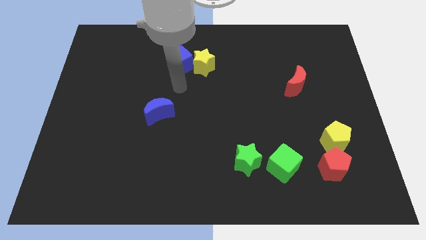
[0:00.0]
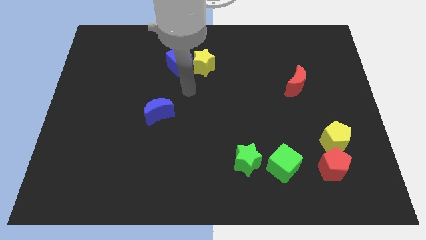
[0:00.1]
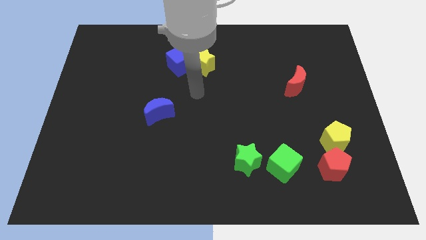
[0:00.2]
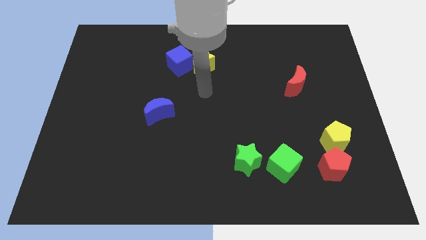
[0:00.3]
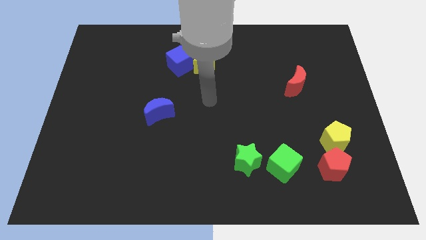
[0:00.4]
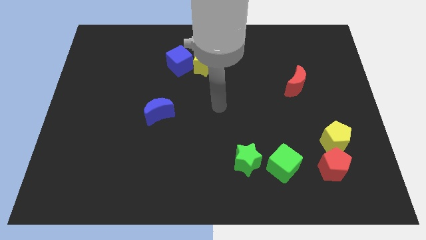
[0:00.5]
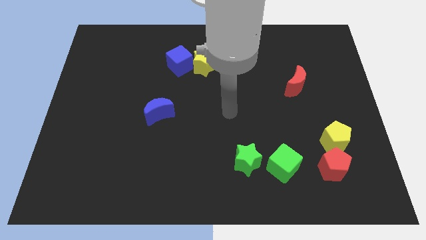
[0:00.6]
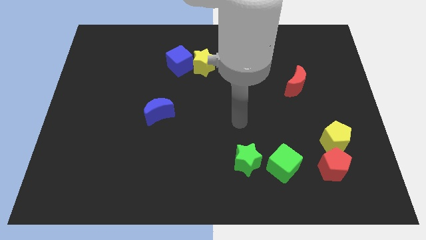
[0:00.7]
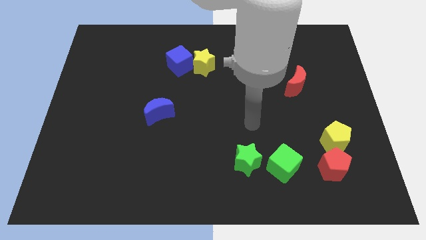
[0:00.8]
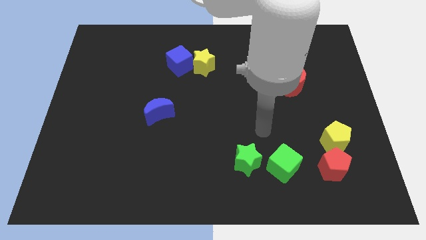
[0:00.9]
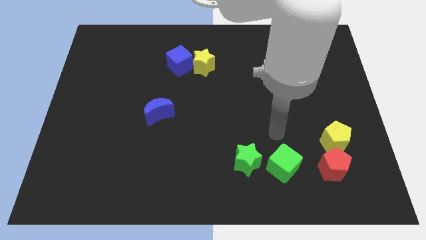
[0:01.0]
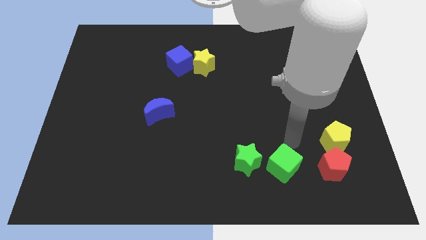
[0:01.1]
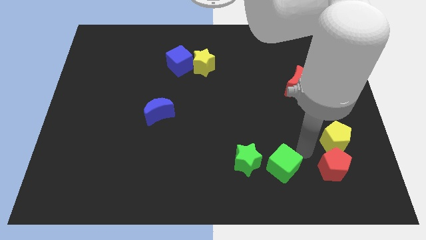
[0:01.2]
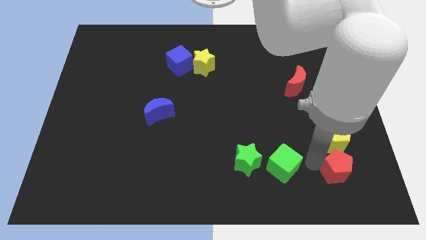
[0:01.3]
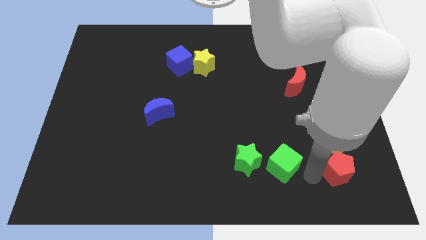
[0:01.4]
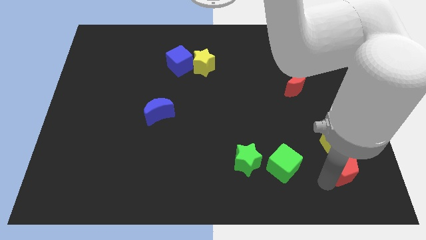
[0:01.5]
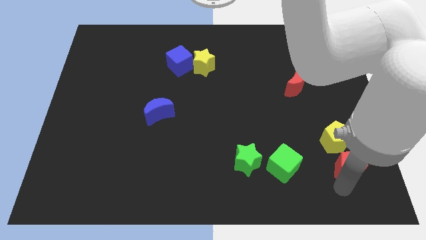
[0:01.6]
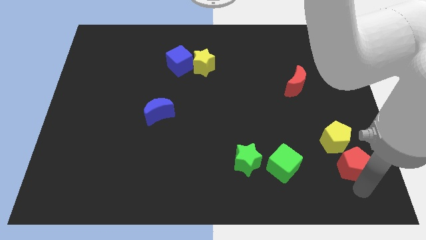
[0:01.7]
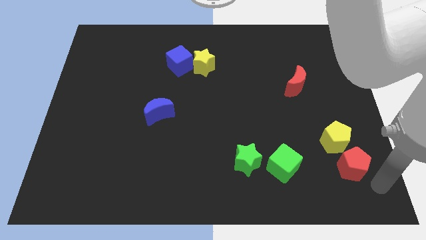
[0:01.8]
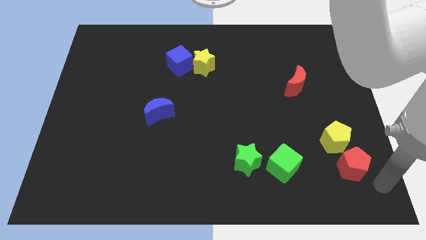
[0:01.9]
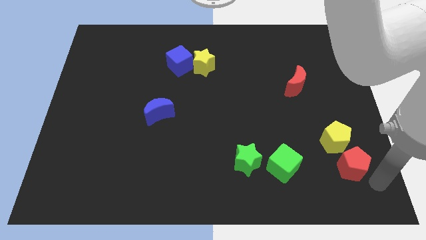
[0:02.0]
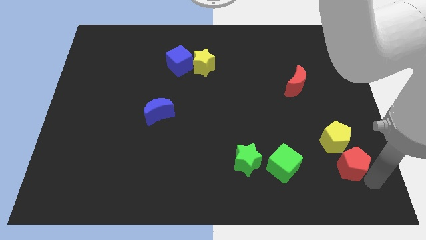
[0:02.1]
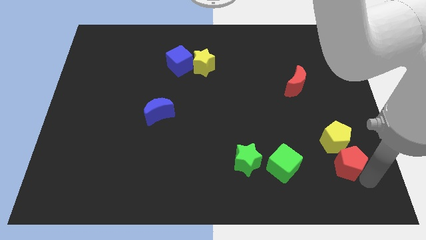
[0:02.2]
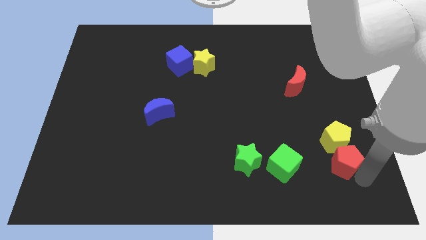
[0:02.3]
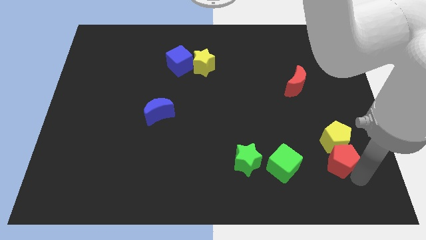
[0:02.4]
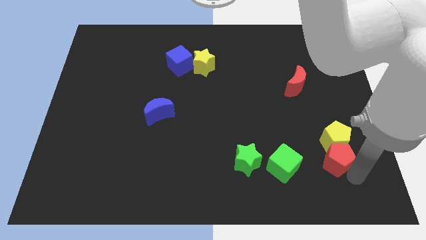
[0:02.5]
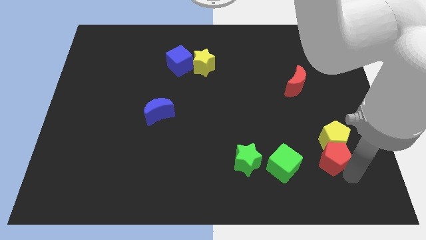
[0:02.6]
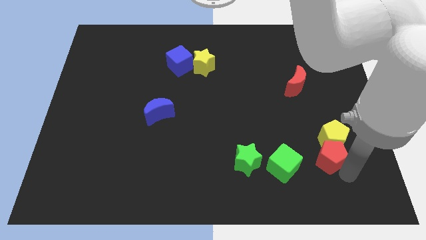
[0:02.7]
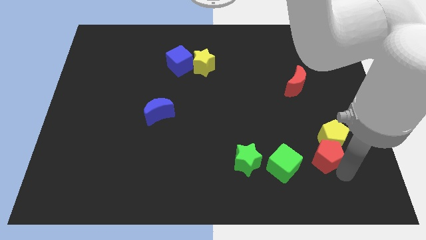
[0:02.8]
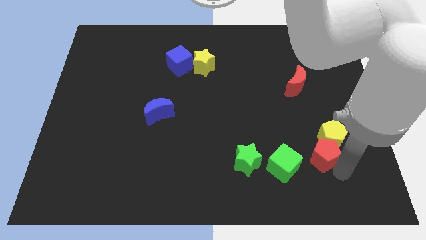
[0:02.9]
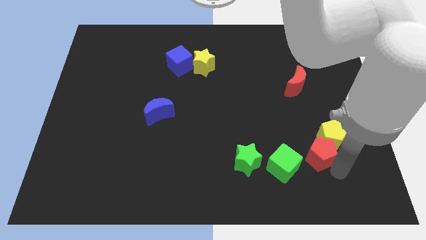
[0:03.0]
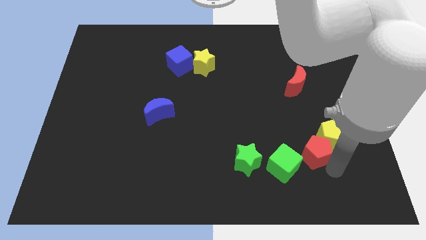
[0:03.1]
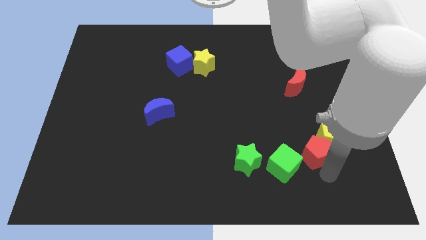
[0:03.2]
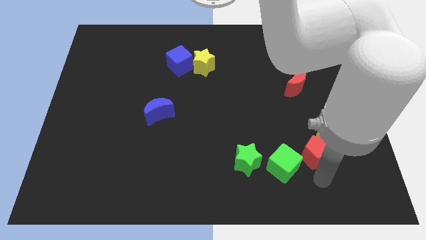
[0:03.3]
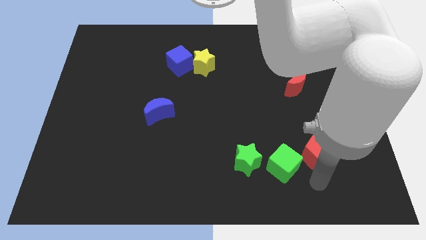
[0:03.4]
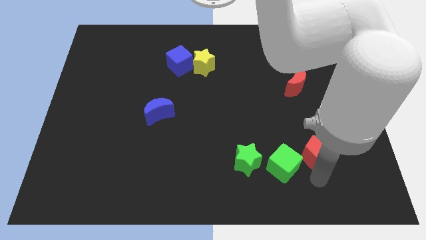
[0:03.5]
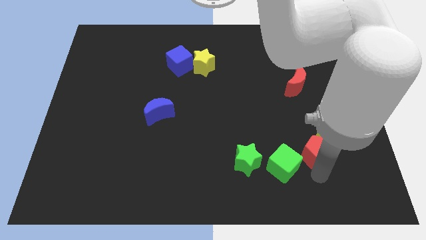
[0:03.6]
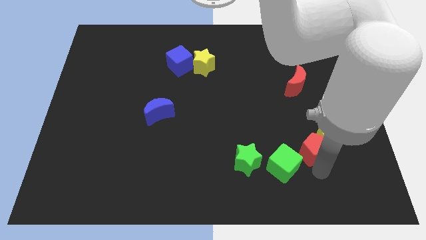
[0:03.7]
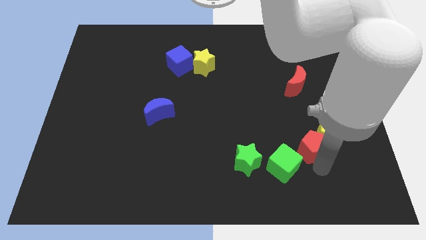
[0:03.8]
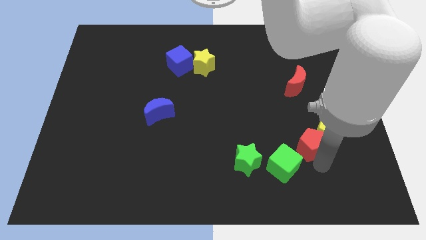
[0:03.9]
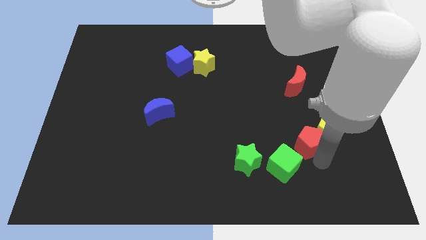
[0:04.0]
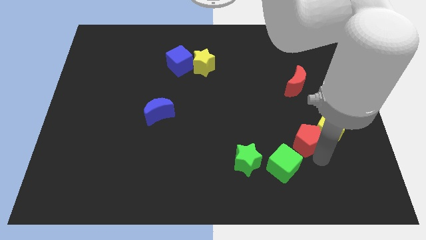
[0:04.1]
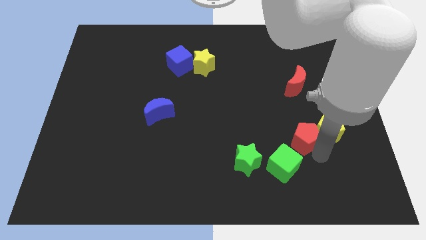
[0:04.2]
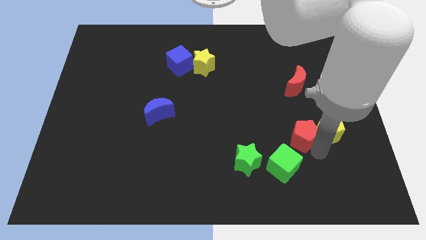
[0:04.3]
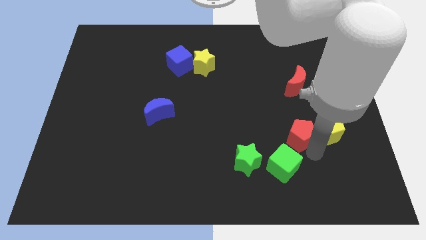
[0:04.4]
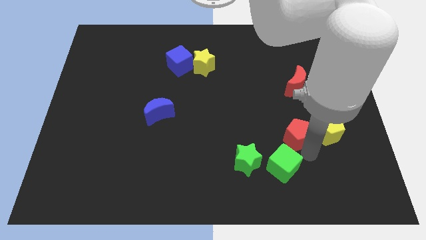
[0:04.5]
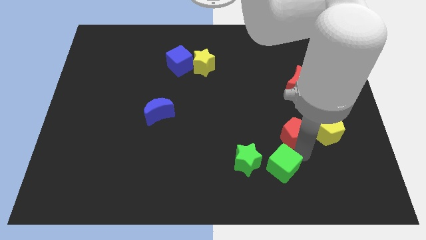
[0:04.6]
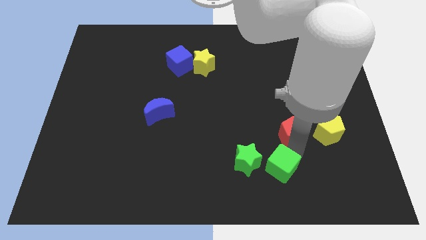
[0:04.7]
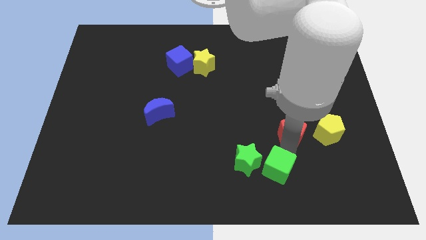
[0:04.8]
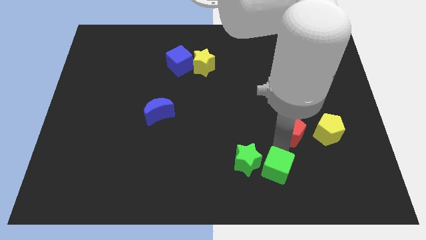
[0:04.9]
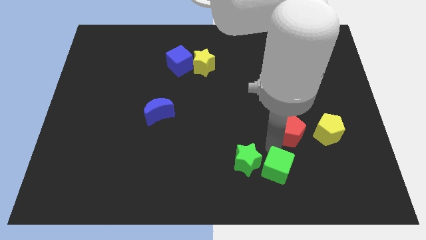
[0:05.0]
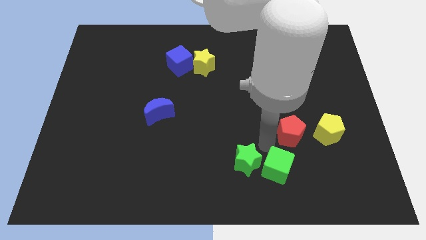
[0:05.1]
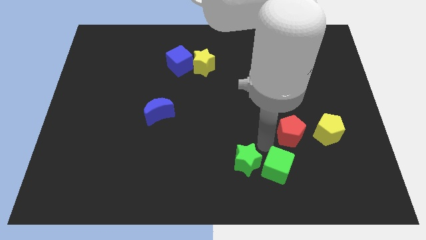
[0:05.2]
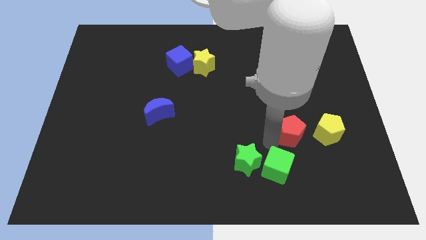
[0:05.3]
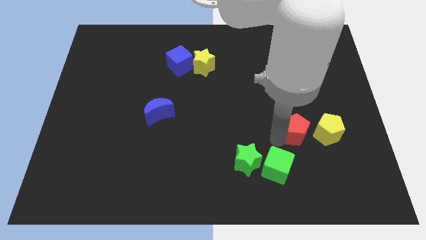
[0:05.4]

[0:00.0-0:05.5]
move the red pentagon a little bit upwards

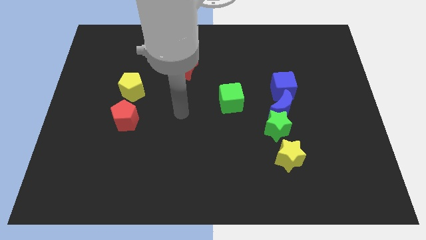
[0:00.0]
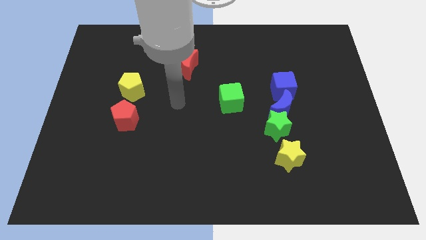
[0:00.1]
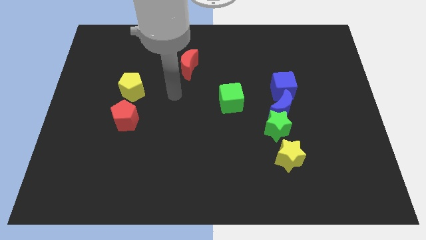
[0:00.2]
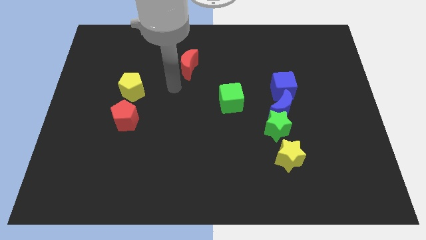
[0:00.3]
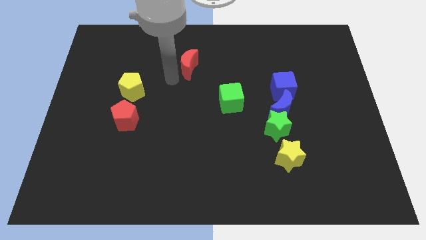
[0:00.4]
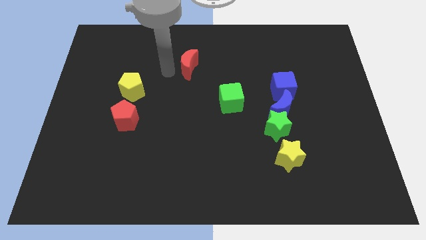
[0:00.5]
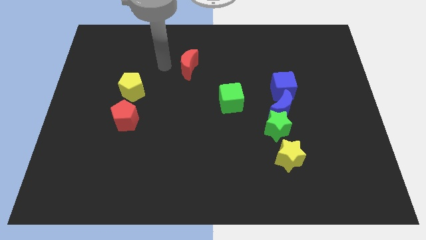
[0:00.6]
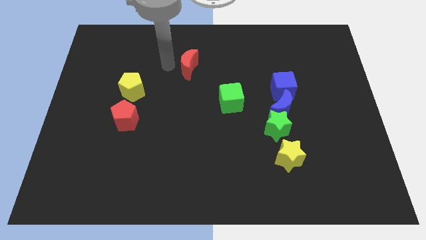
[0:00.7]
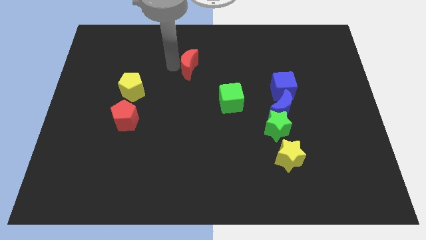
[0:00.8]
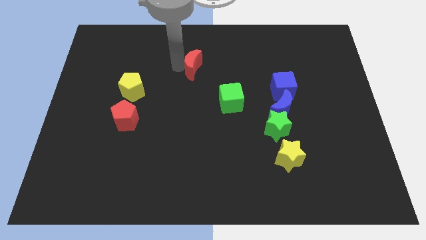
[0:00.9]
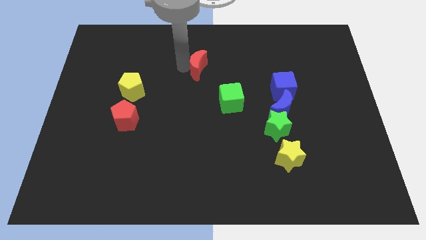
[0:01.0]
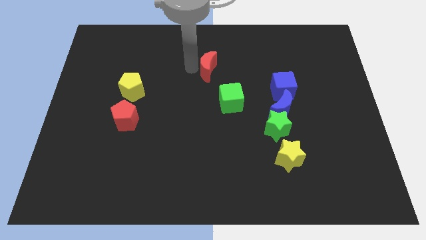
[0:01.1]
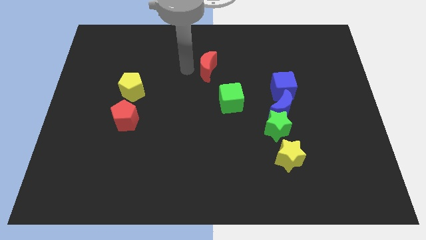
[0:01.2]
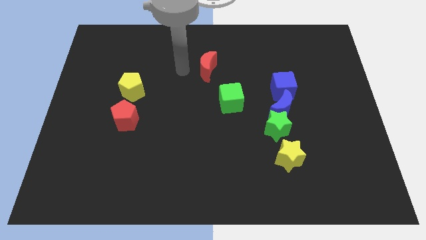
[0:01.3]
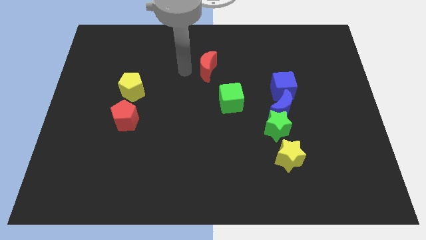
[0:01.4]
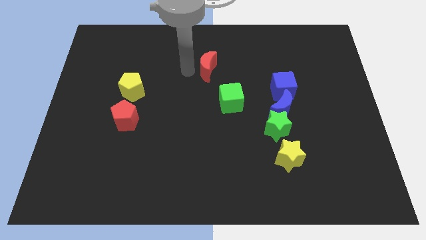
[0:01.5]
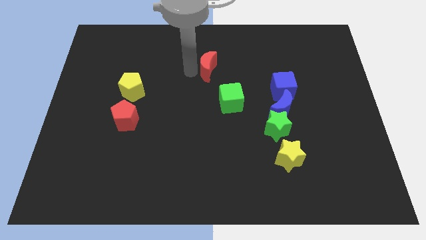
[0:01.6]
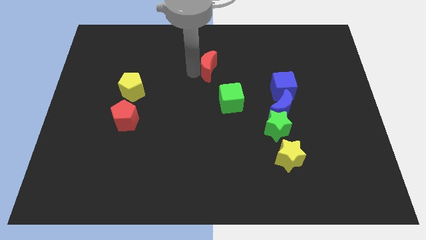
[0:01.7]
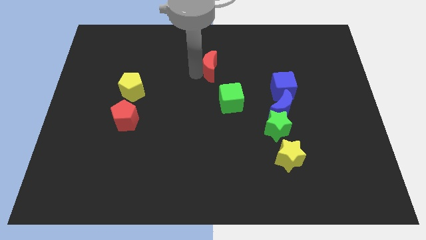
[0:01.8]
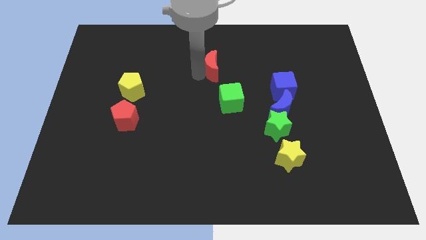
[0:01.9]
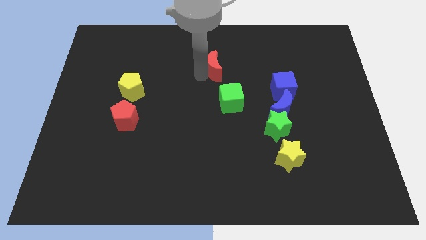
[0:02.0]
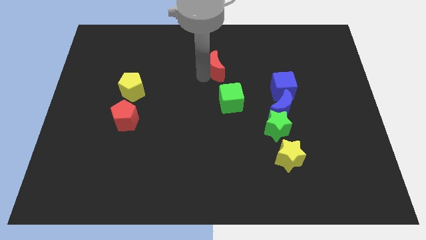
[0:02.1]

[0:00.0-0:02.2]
slide the red moon a little bit right

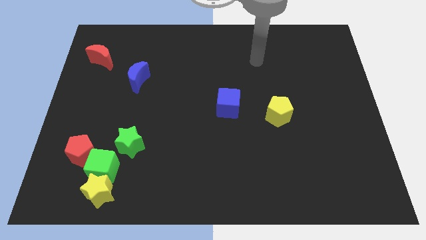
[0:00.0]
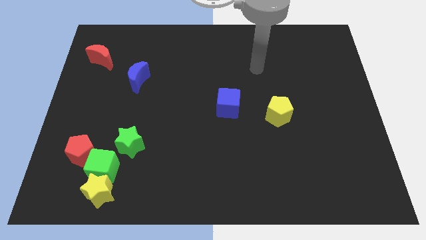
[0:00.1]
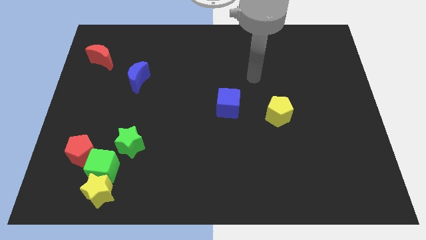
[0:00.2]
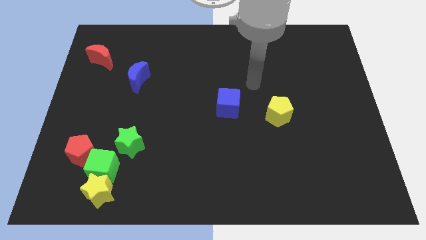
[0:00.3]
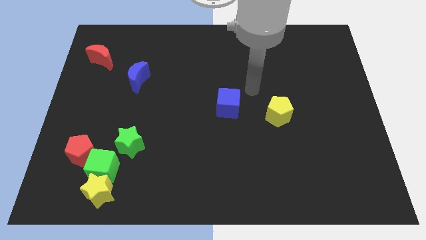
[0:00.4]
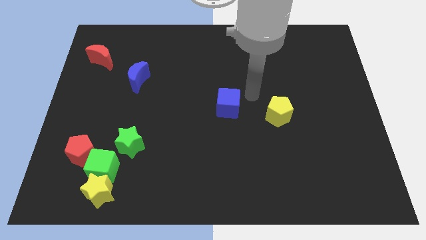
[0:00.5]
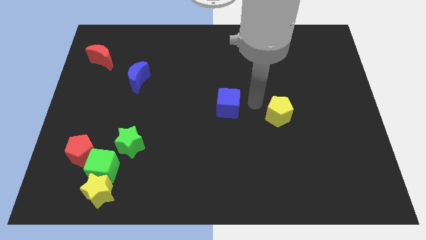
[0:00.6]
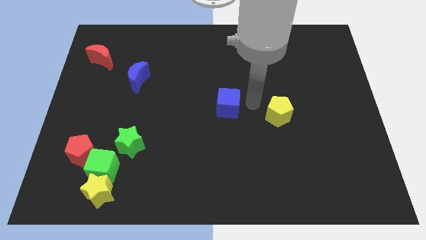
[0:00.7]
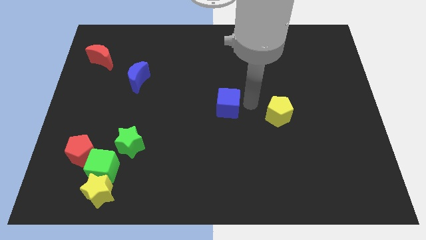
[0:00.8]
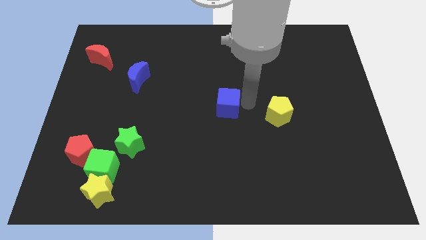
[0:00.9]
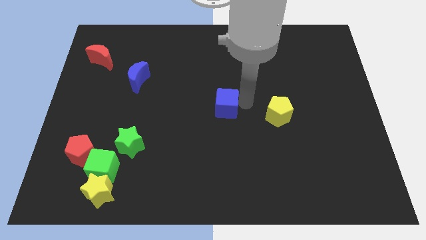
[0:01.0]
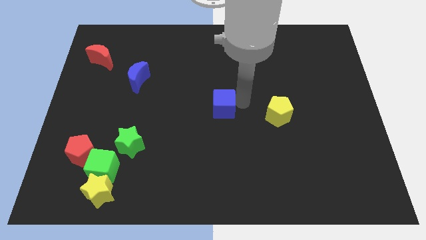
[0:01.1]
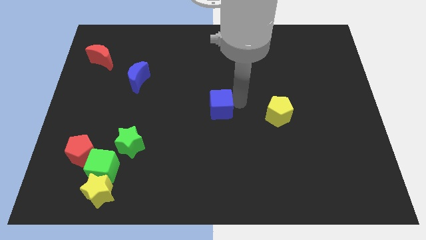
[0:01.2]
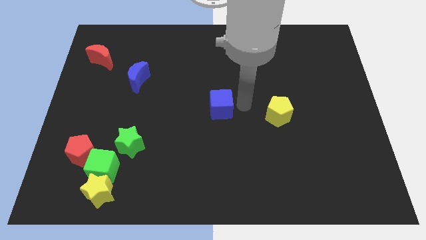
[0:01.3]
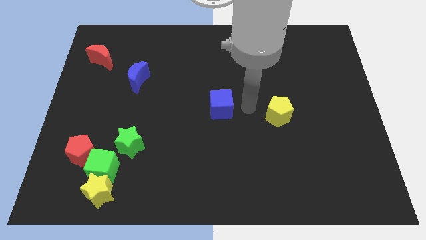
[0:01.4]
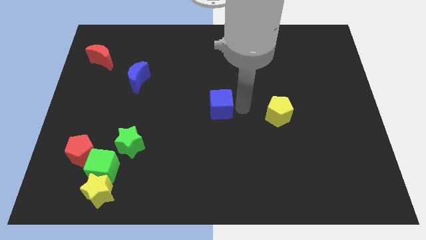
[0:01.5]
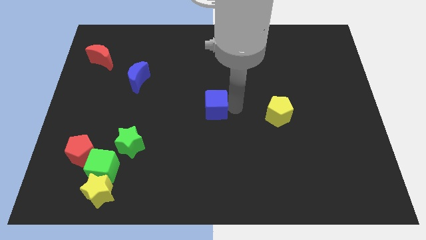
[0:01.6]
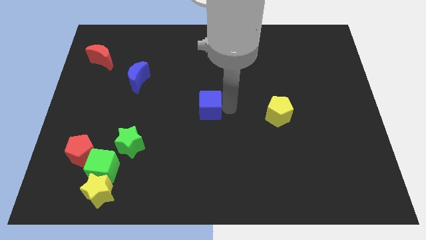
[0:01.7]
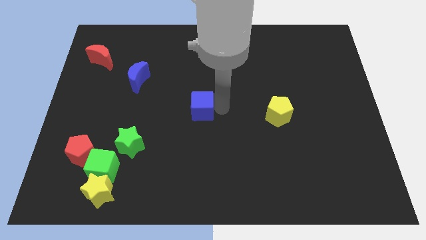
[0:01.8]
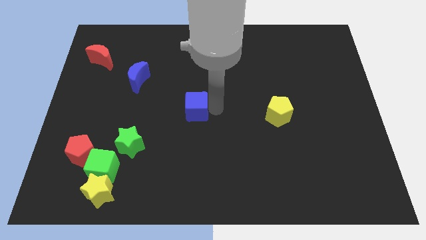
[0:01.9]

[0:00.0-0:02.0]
slightly move the blue cube to the left
